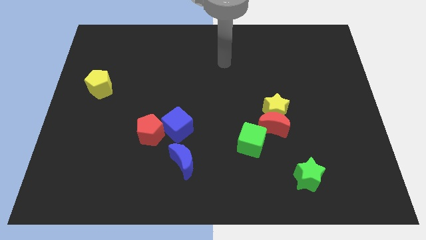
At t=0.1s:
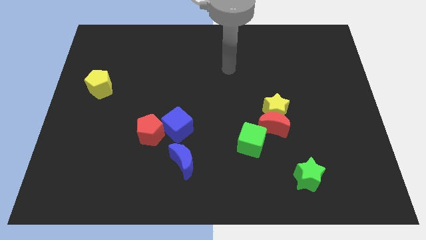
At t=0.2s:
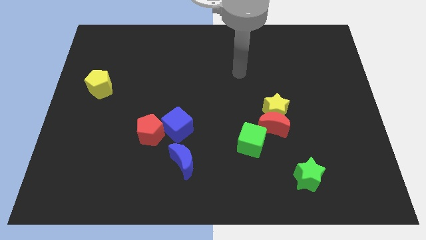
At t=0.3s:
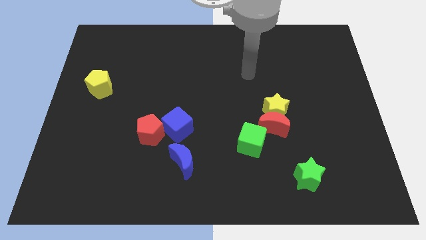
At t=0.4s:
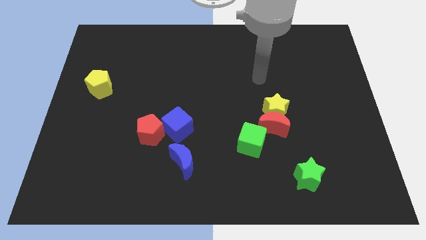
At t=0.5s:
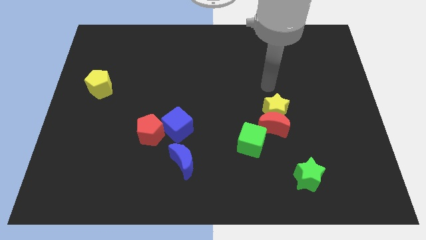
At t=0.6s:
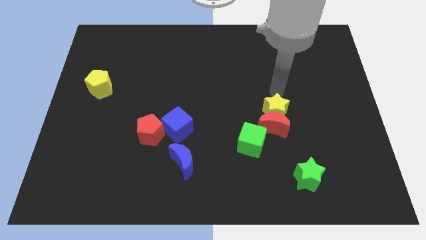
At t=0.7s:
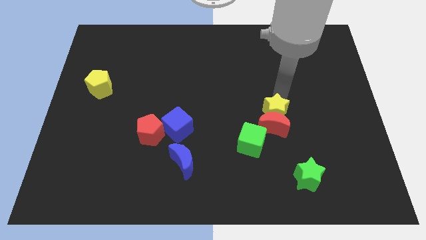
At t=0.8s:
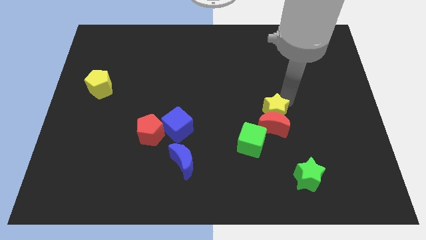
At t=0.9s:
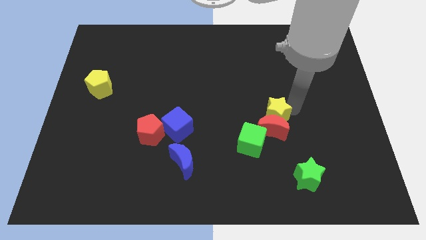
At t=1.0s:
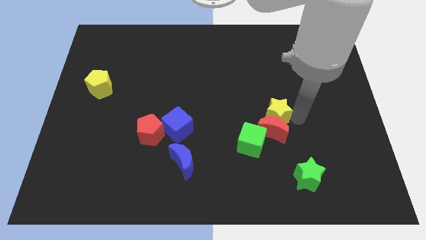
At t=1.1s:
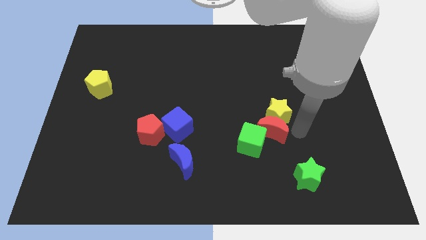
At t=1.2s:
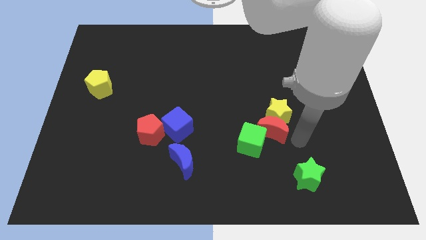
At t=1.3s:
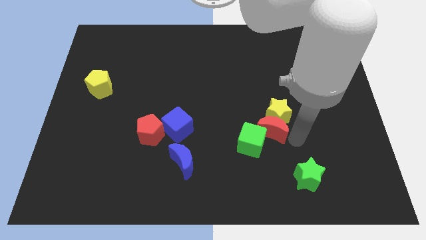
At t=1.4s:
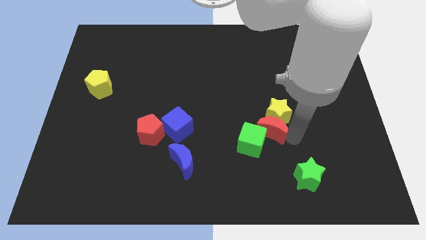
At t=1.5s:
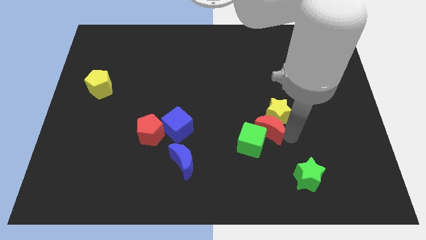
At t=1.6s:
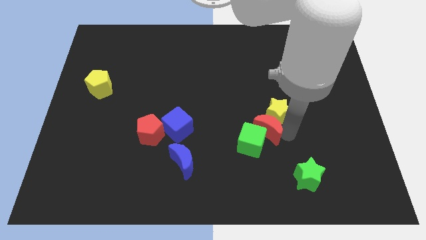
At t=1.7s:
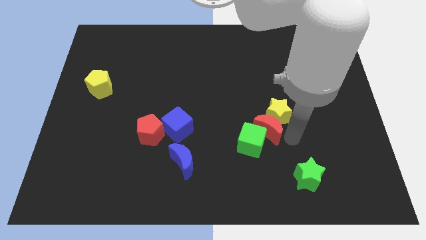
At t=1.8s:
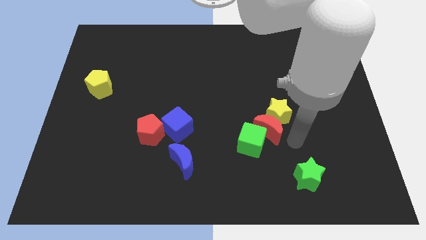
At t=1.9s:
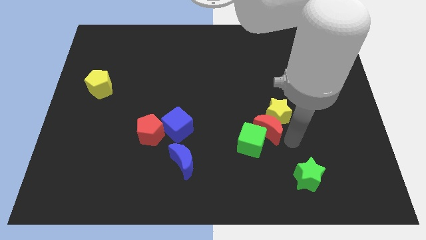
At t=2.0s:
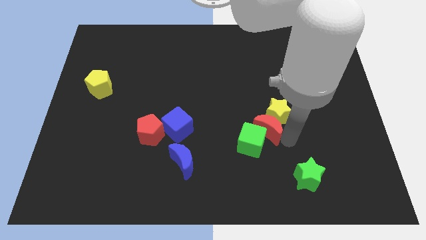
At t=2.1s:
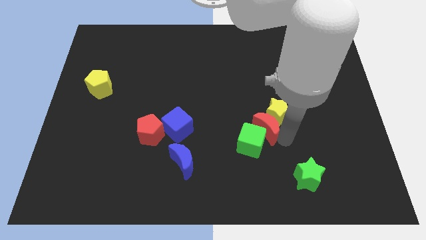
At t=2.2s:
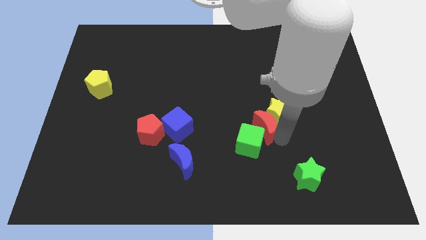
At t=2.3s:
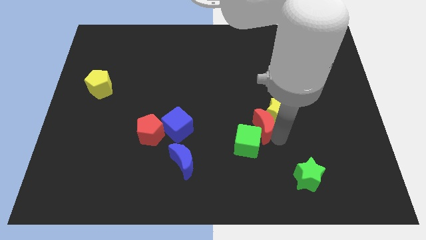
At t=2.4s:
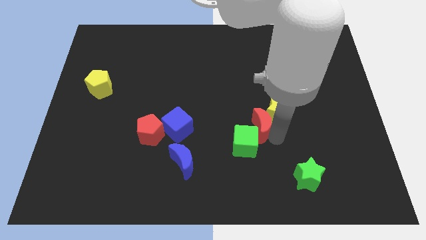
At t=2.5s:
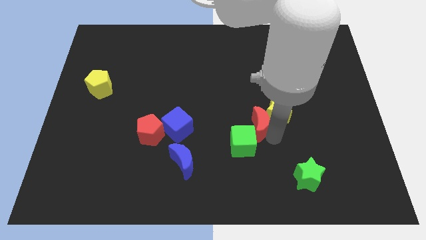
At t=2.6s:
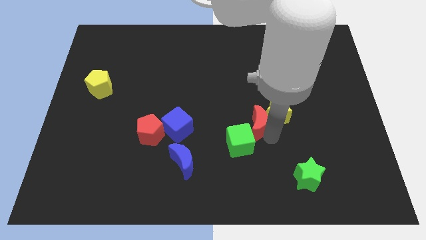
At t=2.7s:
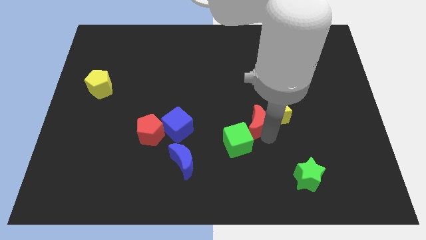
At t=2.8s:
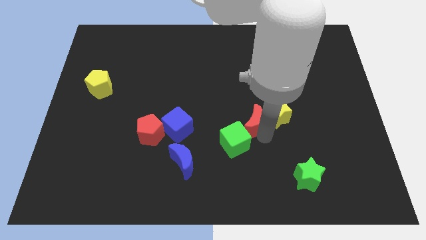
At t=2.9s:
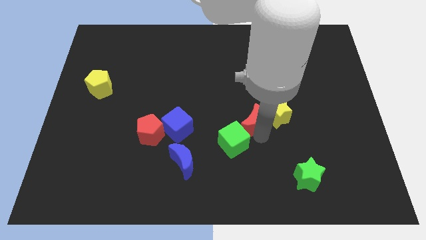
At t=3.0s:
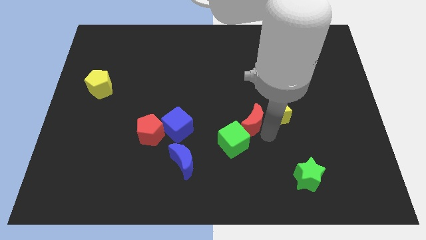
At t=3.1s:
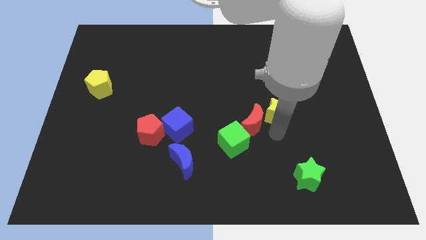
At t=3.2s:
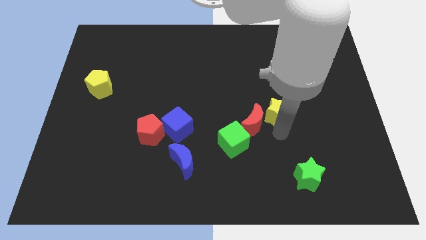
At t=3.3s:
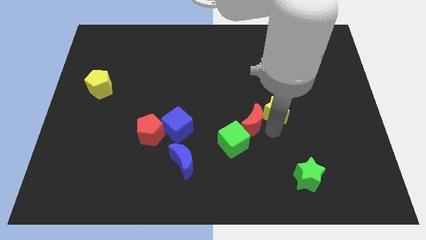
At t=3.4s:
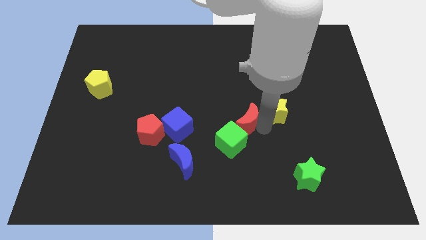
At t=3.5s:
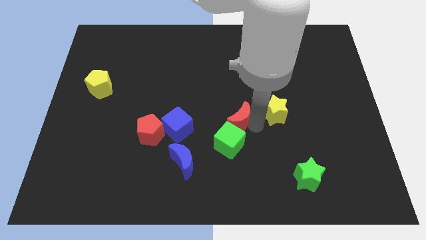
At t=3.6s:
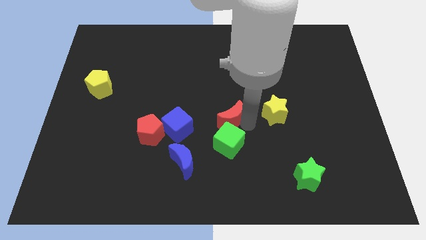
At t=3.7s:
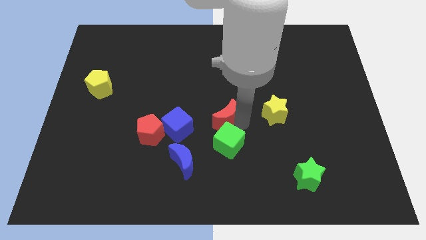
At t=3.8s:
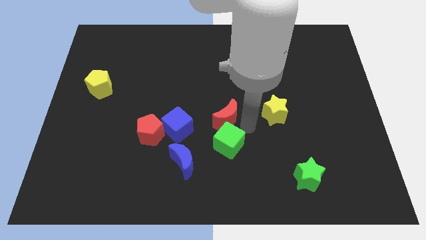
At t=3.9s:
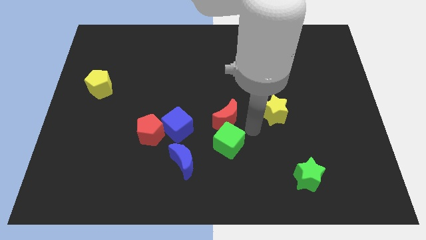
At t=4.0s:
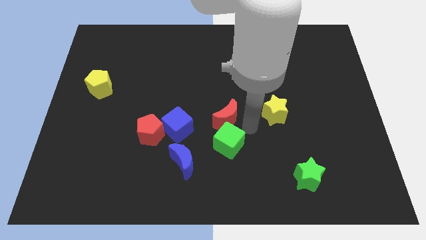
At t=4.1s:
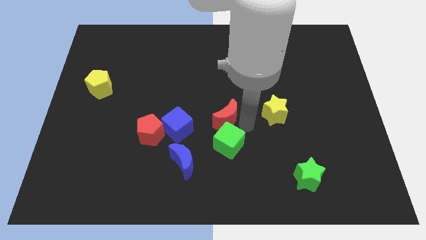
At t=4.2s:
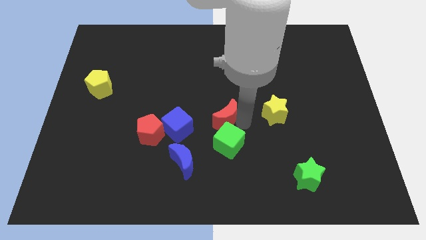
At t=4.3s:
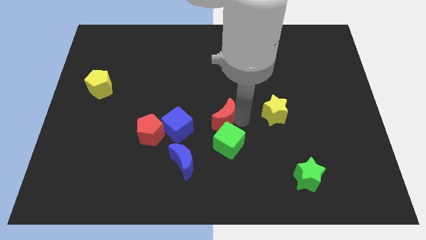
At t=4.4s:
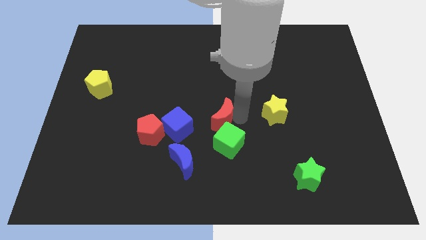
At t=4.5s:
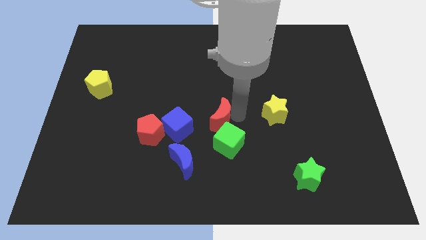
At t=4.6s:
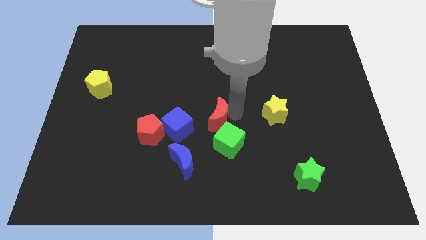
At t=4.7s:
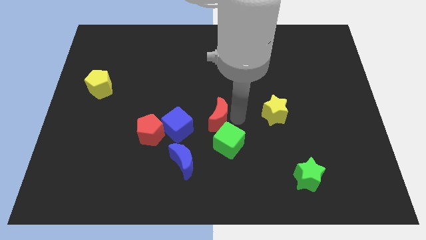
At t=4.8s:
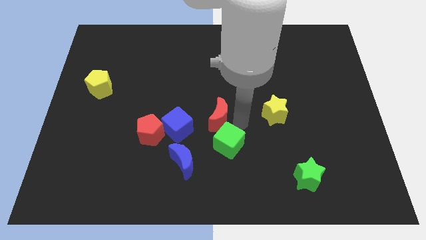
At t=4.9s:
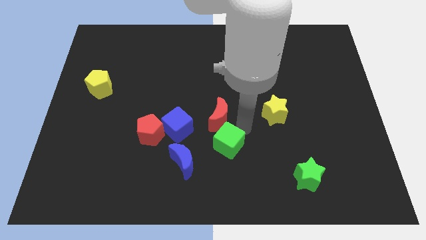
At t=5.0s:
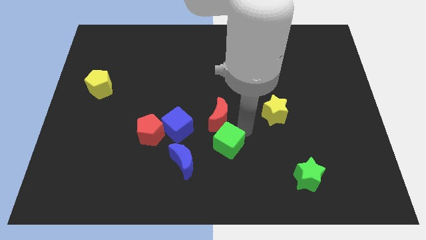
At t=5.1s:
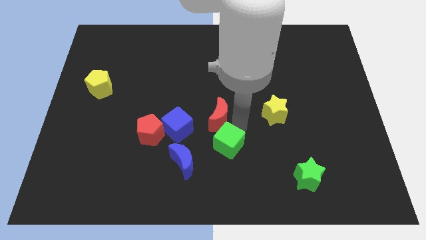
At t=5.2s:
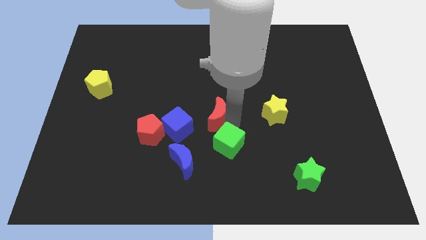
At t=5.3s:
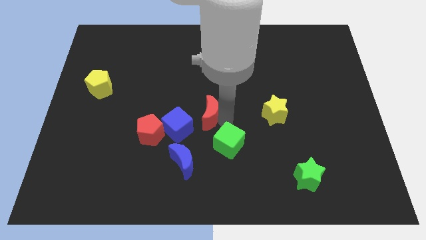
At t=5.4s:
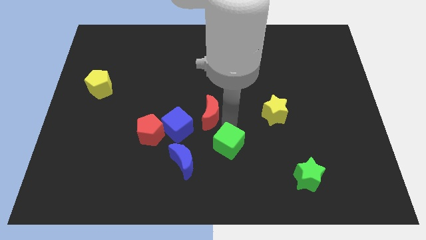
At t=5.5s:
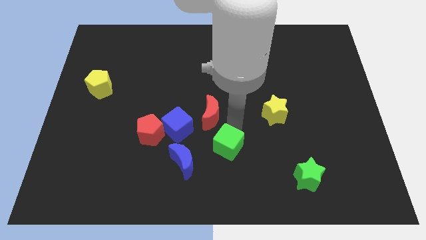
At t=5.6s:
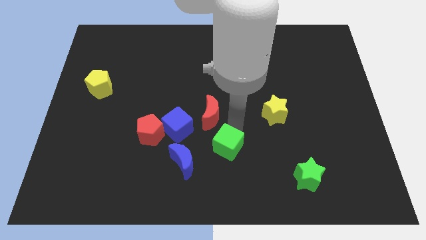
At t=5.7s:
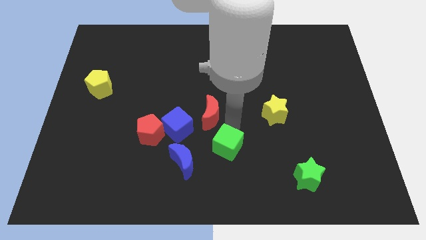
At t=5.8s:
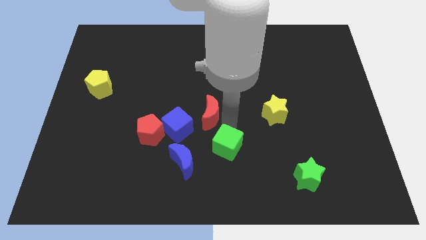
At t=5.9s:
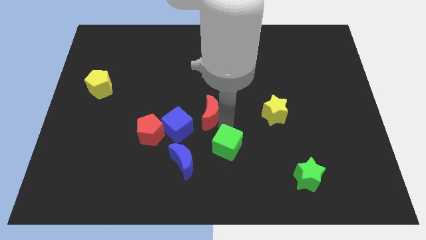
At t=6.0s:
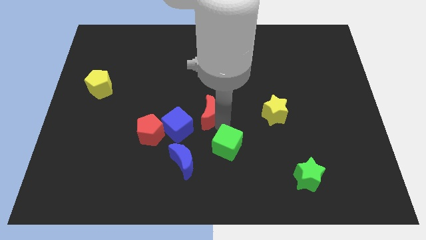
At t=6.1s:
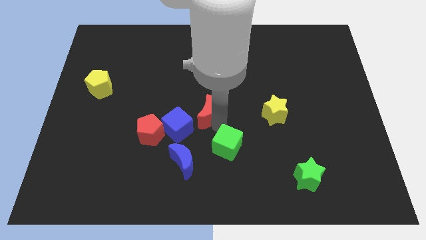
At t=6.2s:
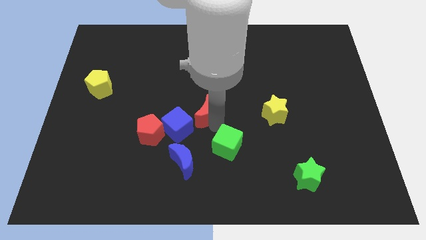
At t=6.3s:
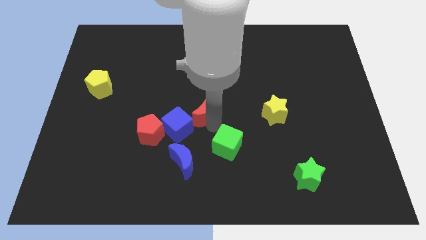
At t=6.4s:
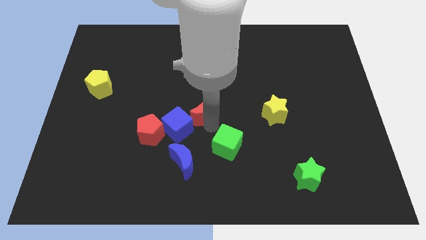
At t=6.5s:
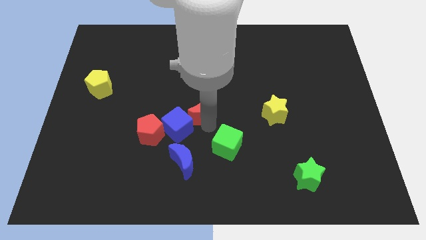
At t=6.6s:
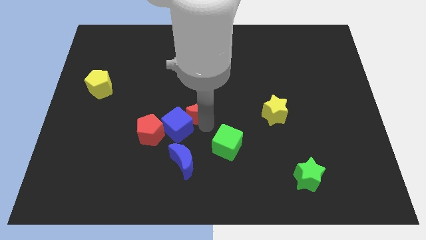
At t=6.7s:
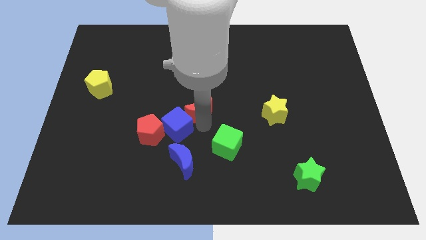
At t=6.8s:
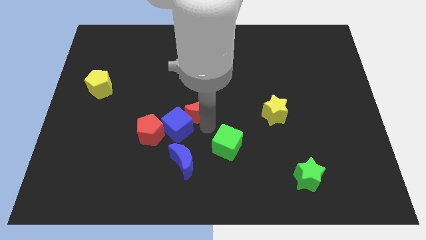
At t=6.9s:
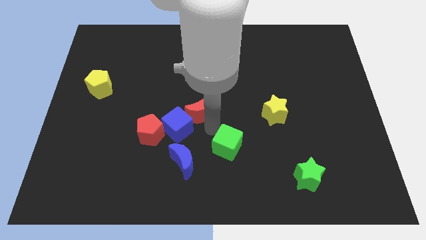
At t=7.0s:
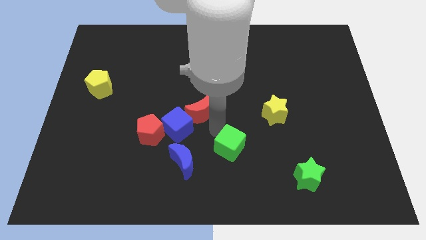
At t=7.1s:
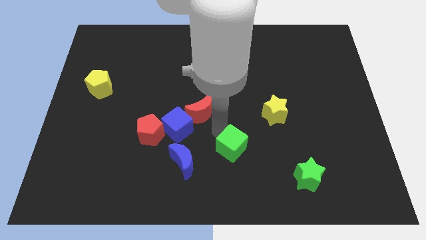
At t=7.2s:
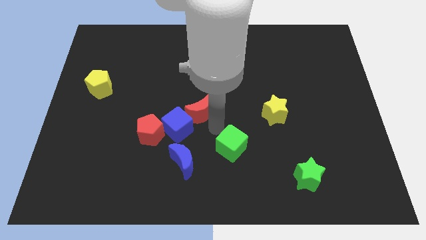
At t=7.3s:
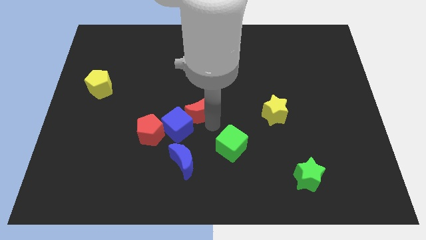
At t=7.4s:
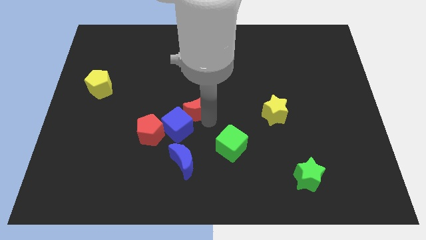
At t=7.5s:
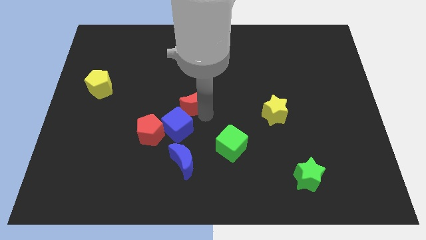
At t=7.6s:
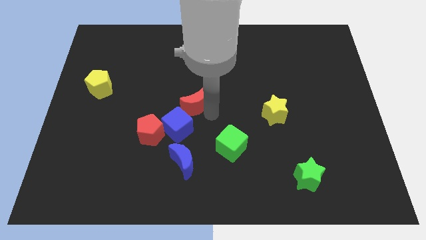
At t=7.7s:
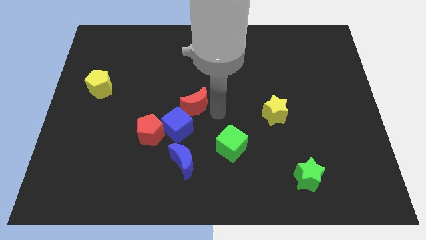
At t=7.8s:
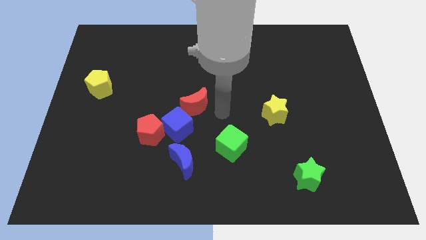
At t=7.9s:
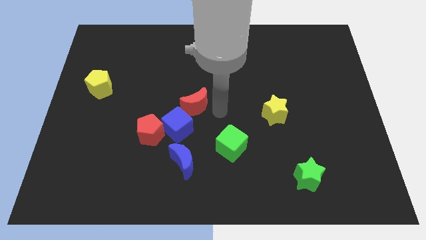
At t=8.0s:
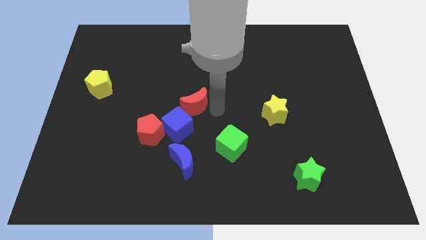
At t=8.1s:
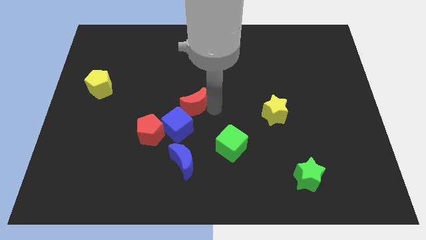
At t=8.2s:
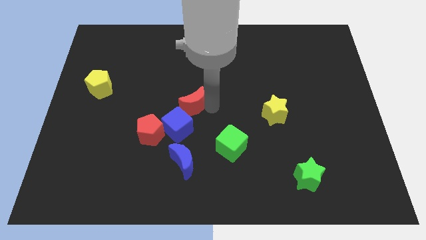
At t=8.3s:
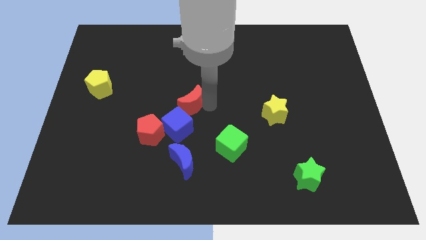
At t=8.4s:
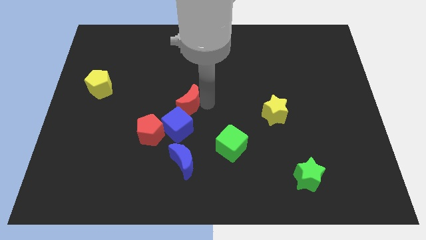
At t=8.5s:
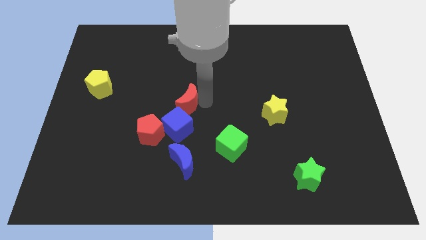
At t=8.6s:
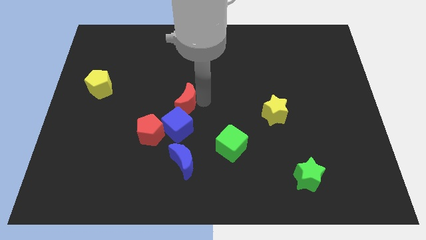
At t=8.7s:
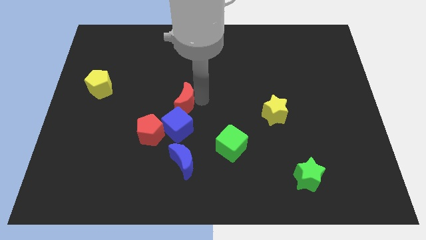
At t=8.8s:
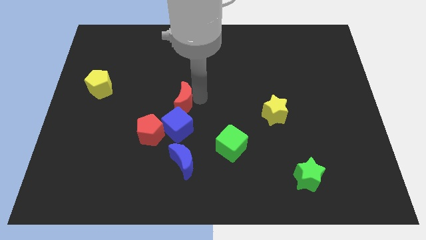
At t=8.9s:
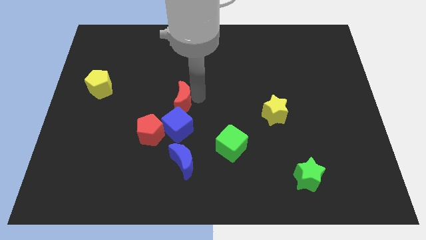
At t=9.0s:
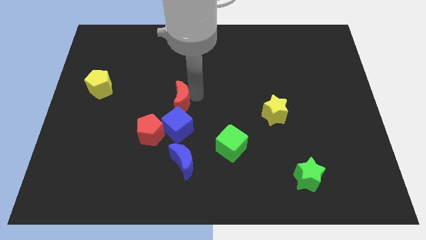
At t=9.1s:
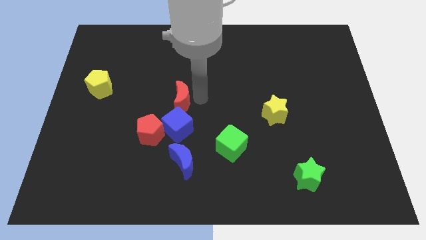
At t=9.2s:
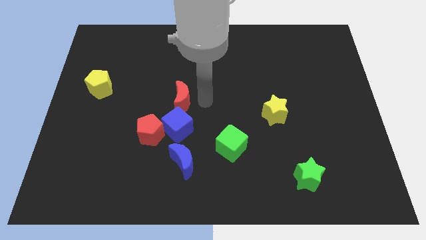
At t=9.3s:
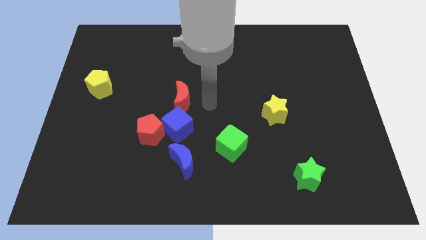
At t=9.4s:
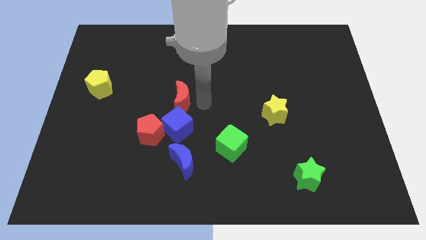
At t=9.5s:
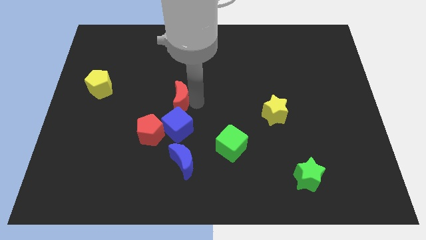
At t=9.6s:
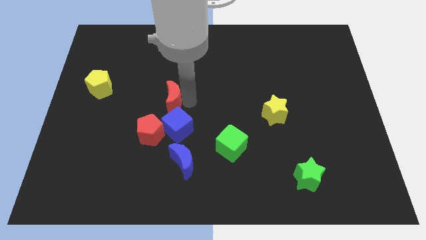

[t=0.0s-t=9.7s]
slide the red moon to the top of the red pentagon
